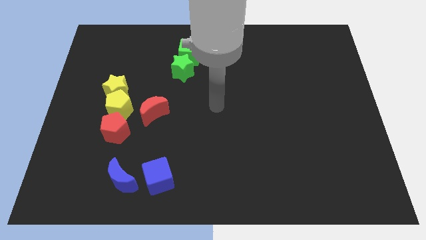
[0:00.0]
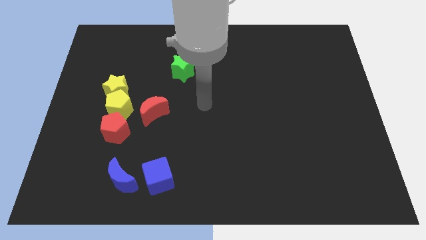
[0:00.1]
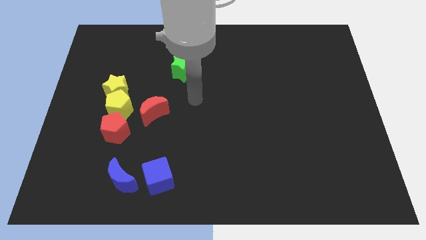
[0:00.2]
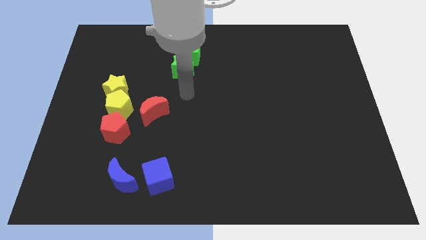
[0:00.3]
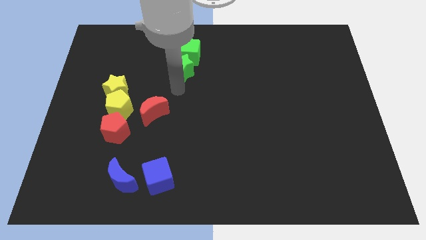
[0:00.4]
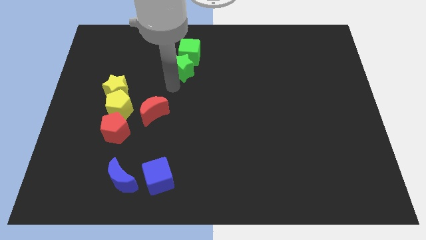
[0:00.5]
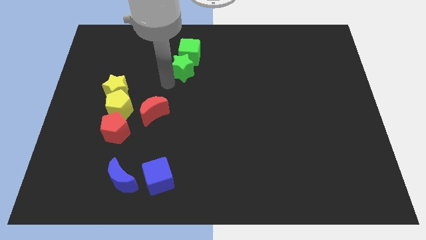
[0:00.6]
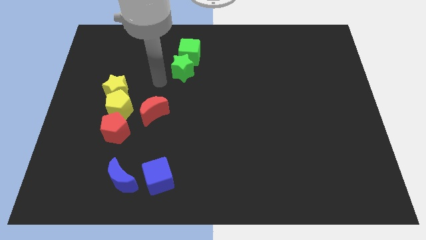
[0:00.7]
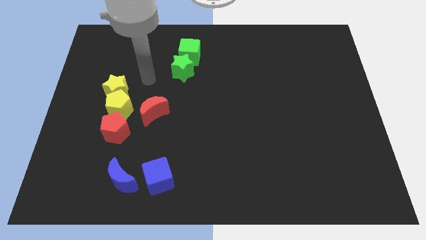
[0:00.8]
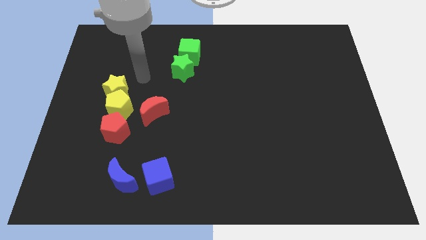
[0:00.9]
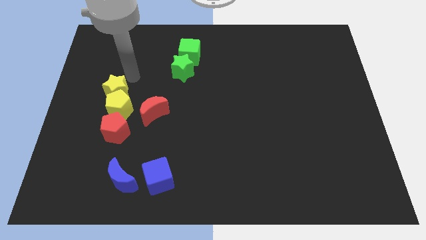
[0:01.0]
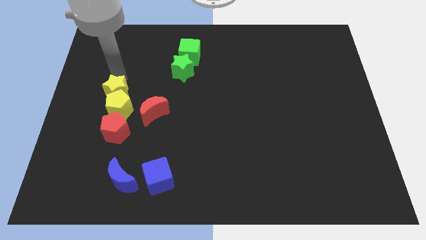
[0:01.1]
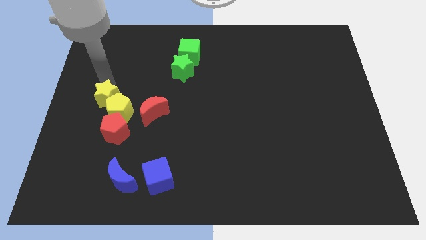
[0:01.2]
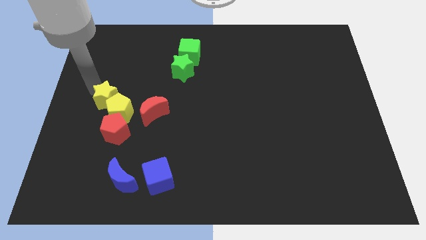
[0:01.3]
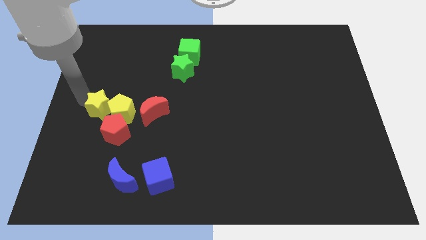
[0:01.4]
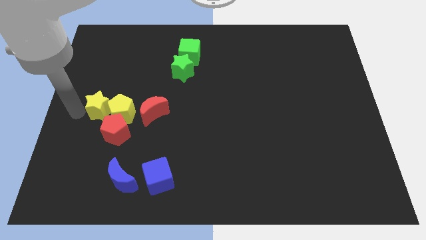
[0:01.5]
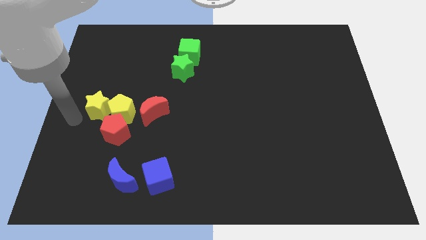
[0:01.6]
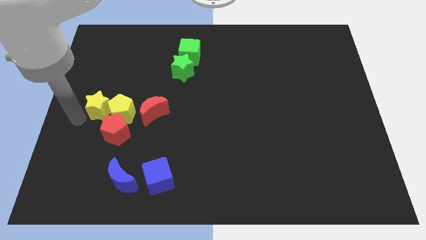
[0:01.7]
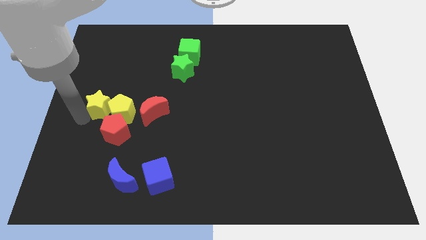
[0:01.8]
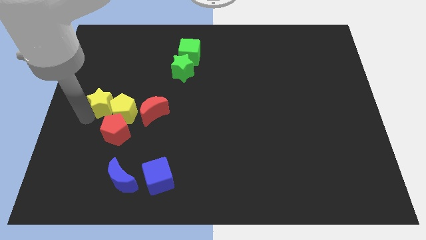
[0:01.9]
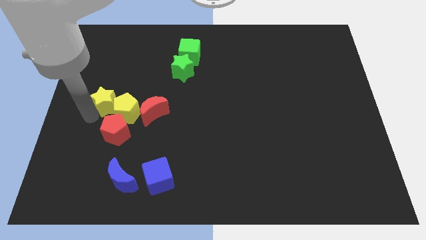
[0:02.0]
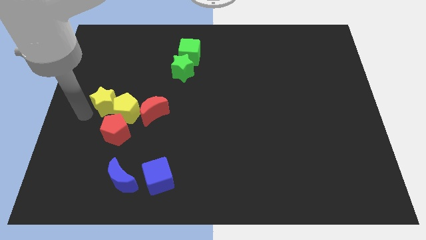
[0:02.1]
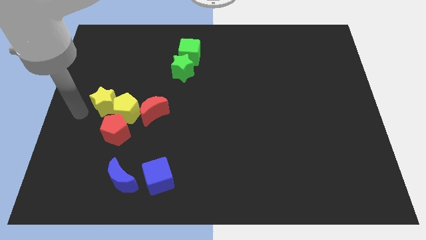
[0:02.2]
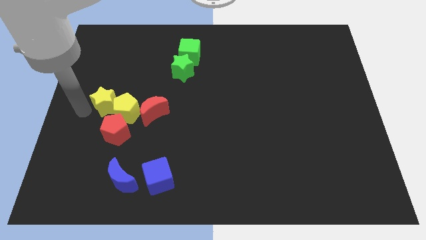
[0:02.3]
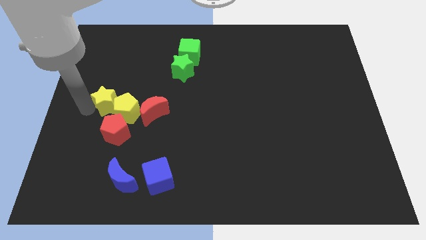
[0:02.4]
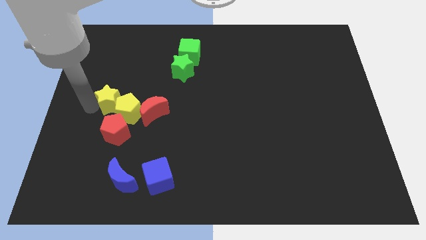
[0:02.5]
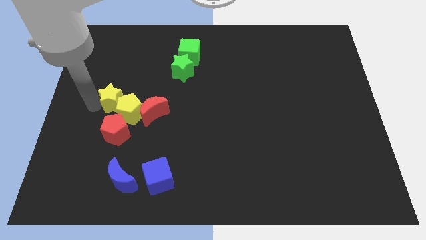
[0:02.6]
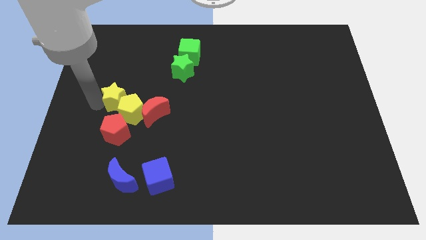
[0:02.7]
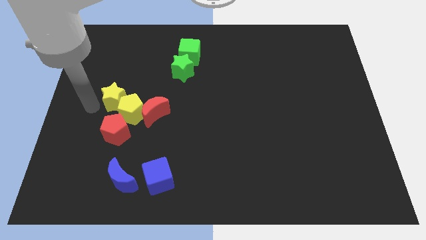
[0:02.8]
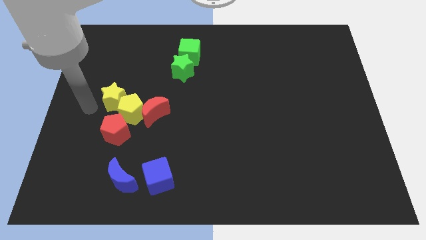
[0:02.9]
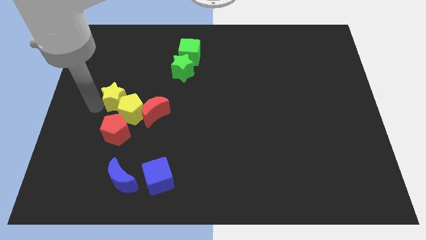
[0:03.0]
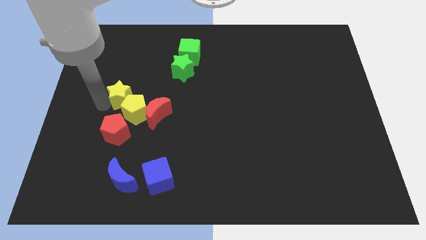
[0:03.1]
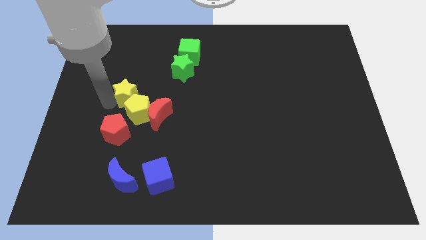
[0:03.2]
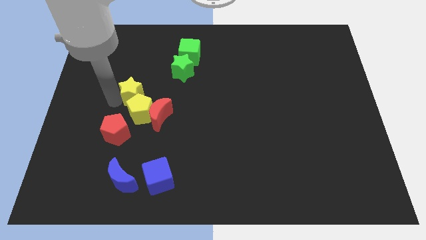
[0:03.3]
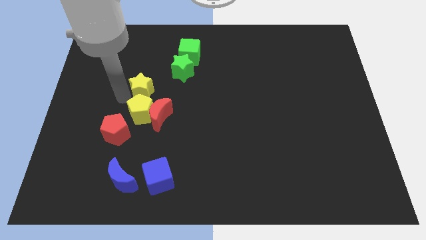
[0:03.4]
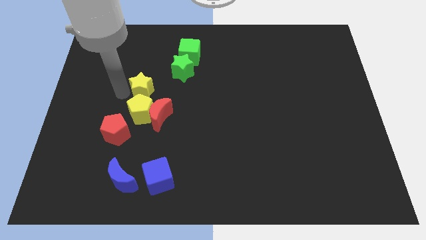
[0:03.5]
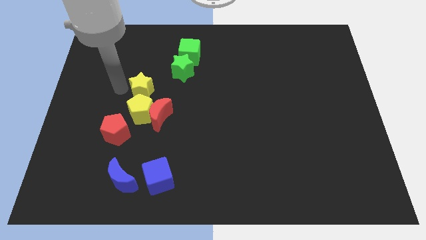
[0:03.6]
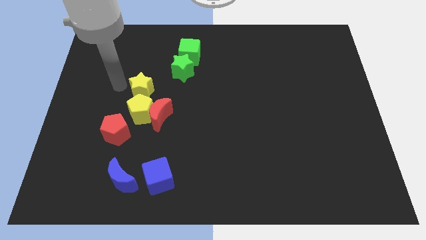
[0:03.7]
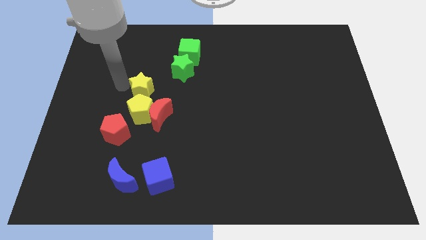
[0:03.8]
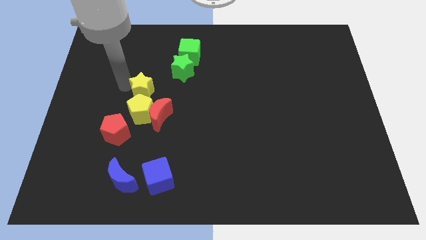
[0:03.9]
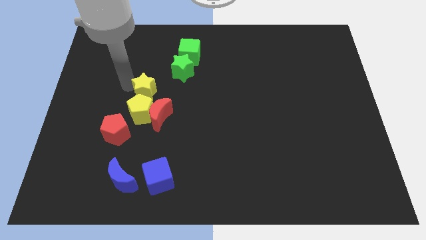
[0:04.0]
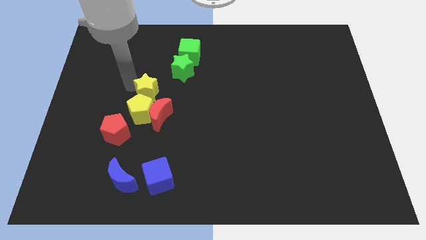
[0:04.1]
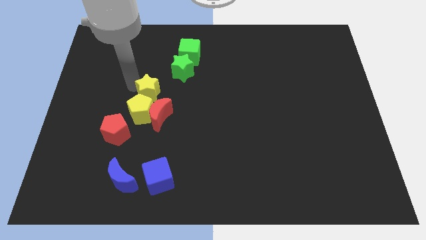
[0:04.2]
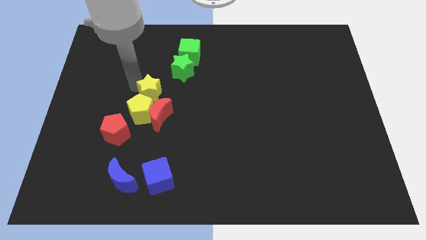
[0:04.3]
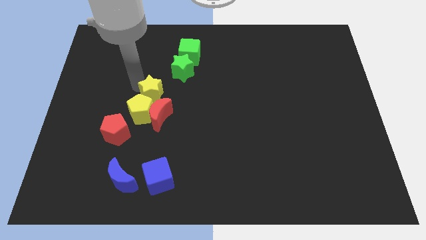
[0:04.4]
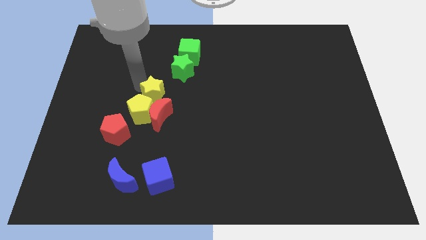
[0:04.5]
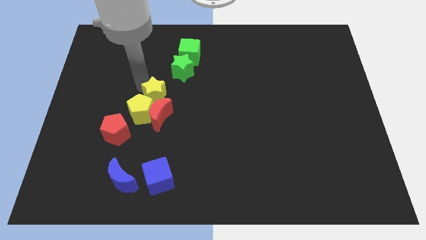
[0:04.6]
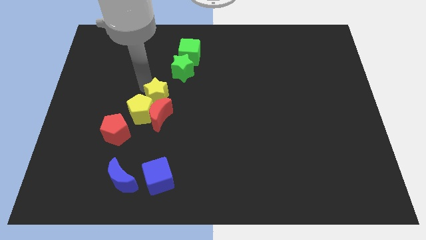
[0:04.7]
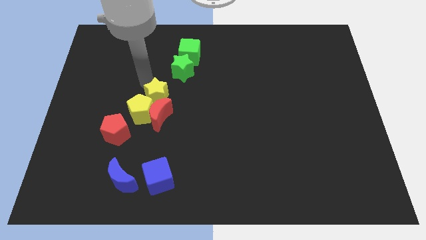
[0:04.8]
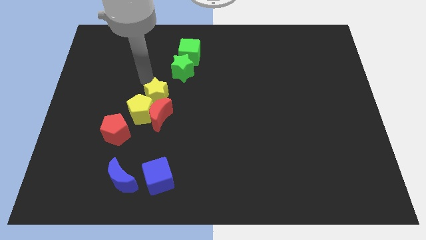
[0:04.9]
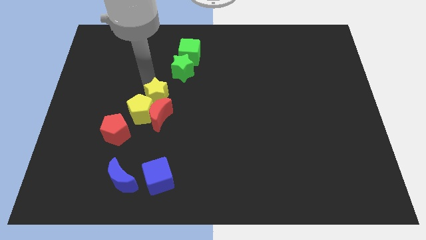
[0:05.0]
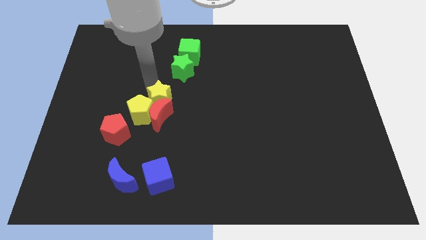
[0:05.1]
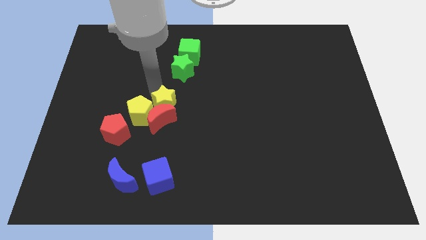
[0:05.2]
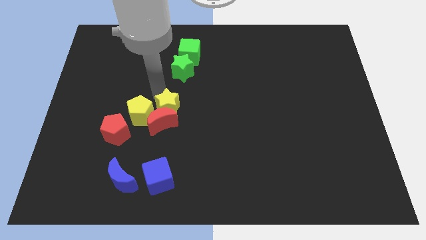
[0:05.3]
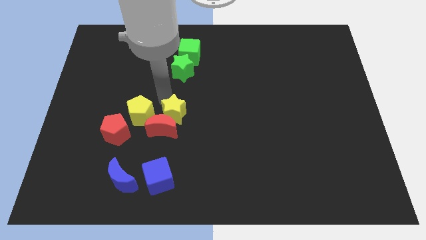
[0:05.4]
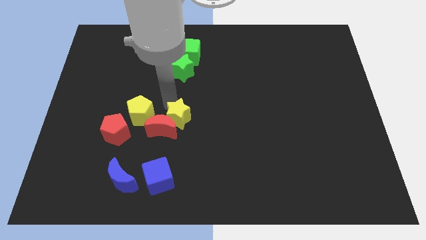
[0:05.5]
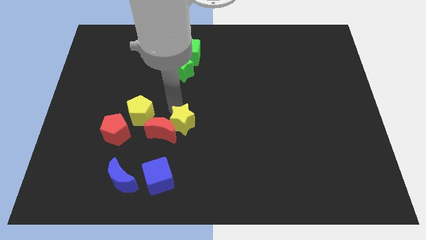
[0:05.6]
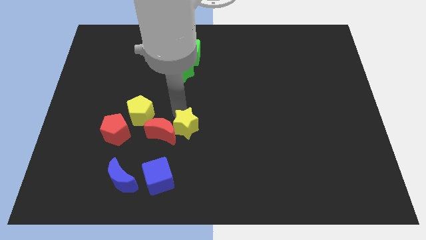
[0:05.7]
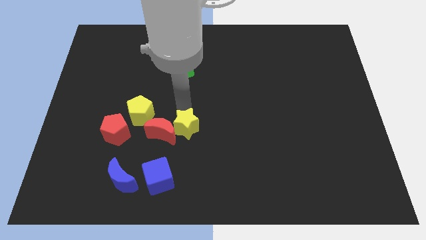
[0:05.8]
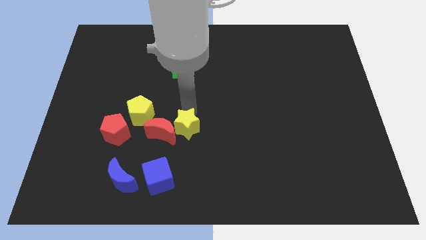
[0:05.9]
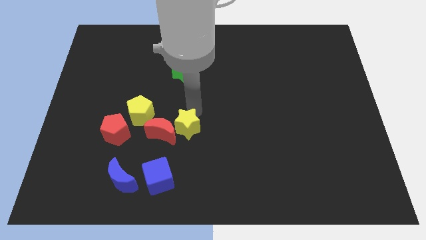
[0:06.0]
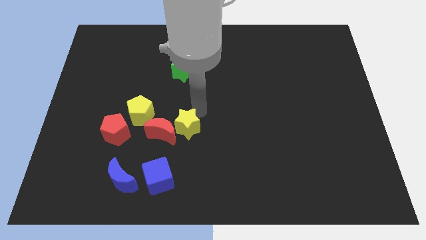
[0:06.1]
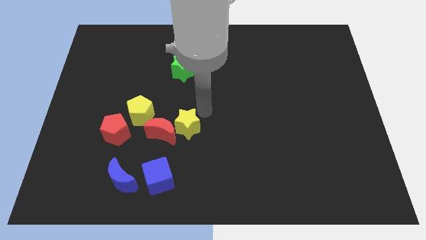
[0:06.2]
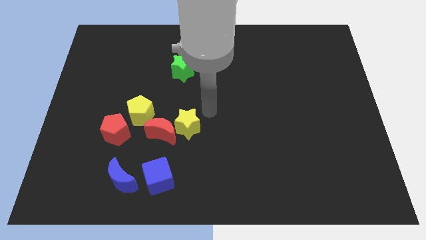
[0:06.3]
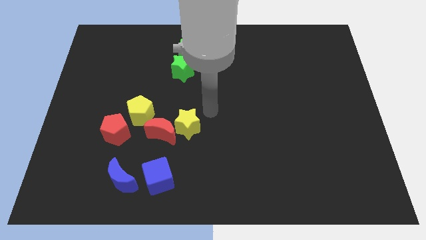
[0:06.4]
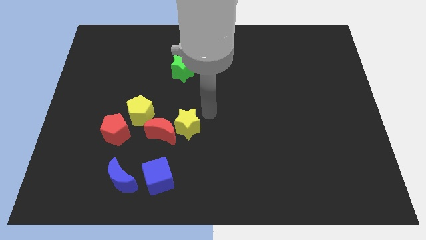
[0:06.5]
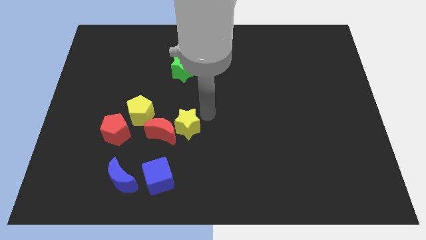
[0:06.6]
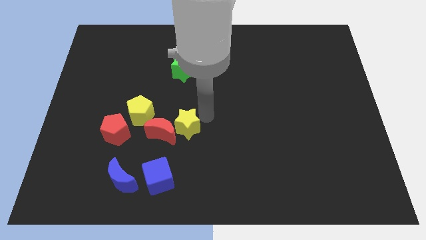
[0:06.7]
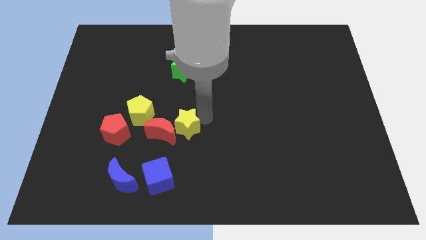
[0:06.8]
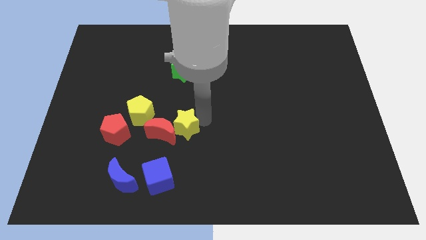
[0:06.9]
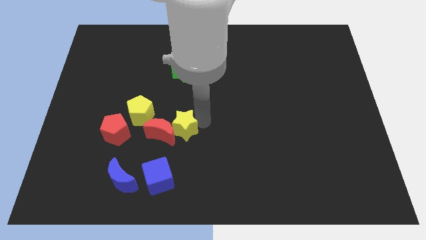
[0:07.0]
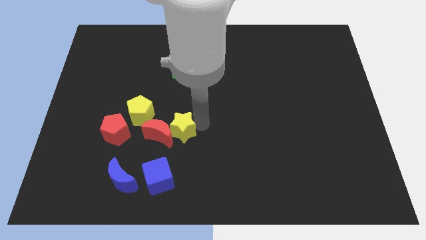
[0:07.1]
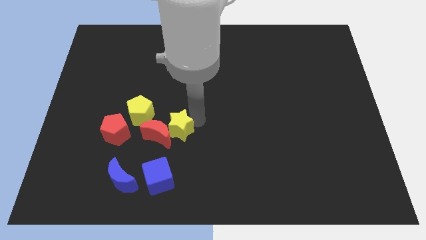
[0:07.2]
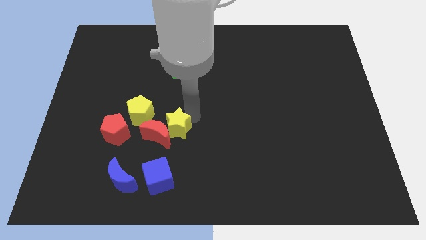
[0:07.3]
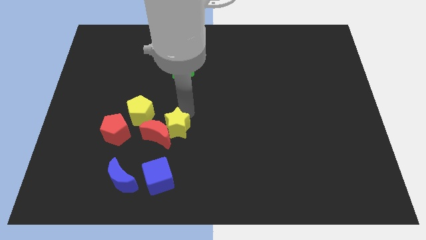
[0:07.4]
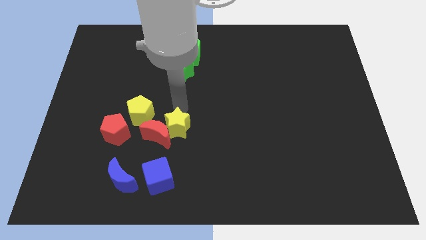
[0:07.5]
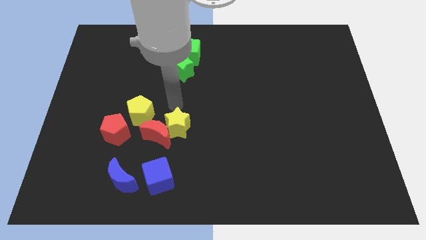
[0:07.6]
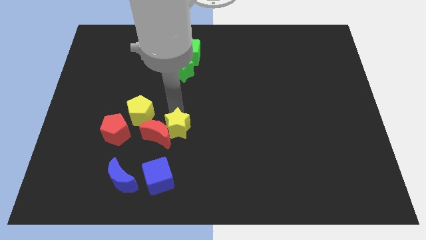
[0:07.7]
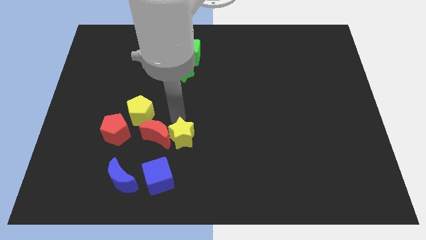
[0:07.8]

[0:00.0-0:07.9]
slide the yellow star to the top right side of the blue cube
